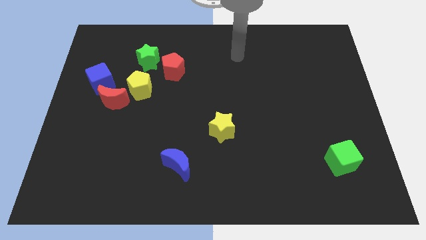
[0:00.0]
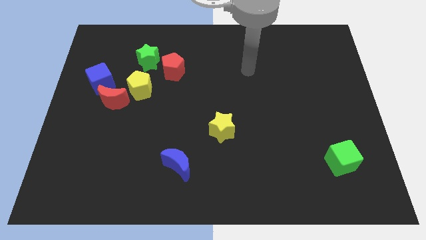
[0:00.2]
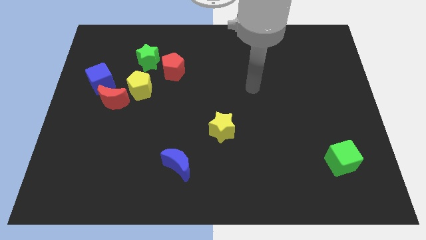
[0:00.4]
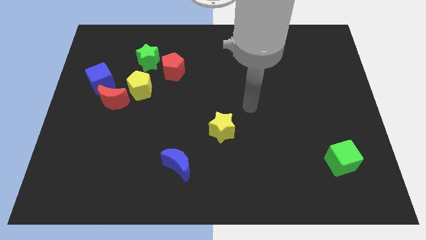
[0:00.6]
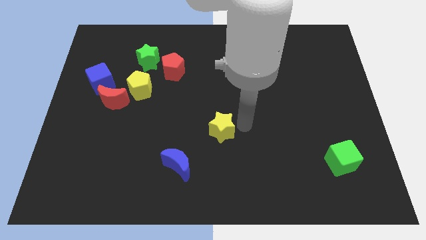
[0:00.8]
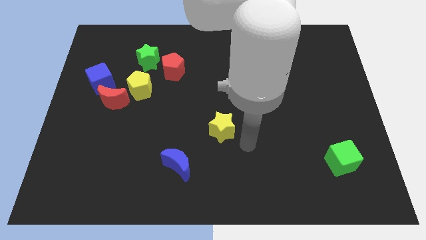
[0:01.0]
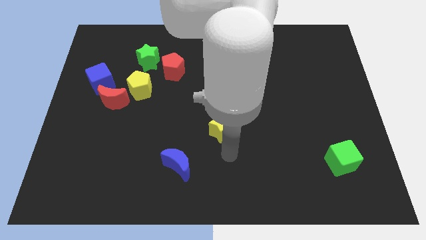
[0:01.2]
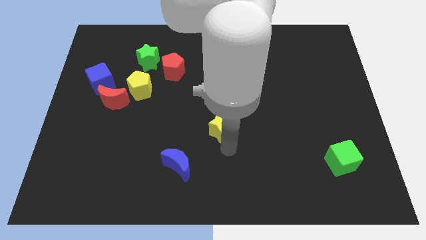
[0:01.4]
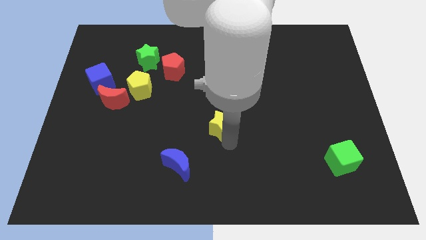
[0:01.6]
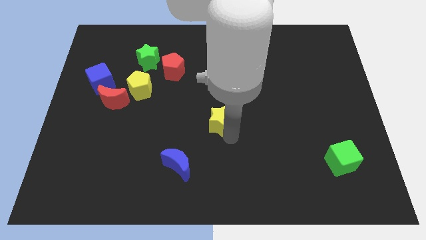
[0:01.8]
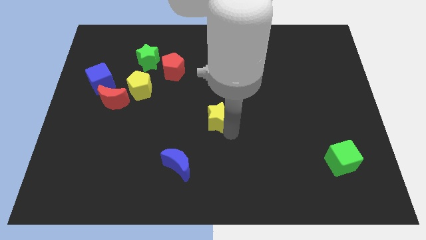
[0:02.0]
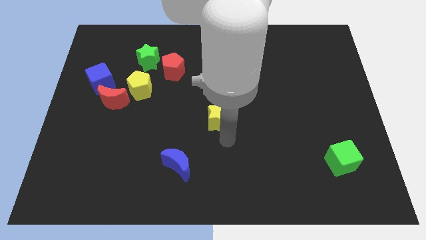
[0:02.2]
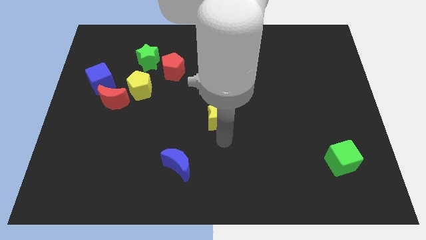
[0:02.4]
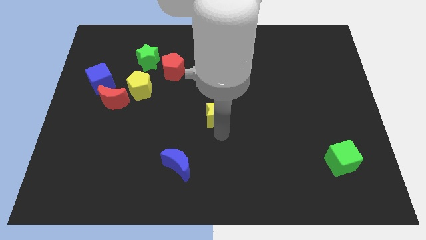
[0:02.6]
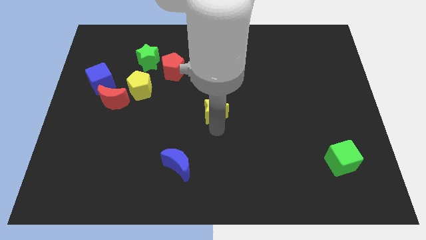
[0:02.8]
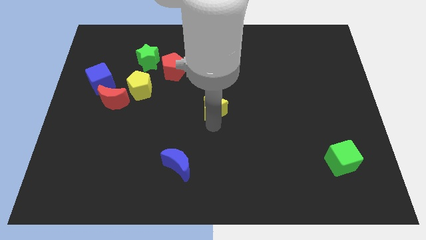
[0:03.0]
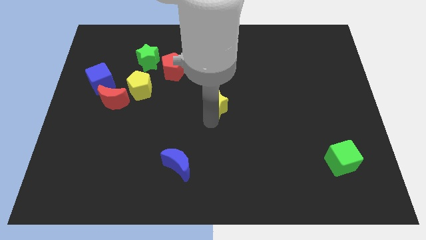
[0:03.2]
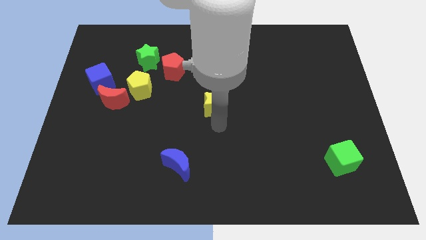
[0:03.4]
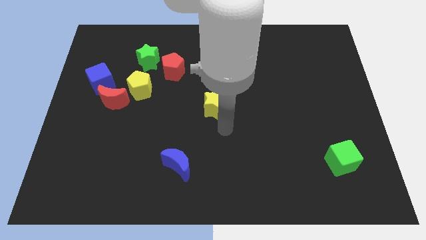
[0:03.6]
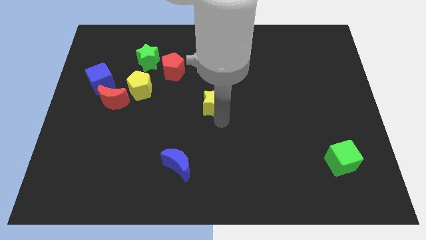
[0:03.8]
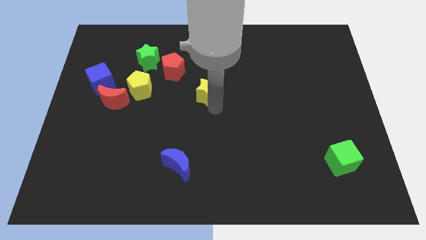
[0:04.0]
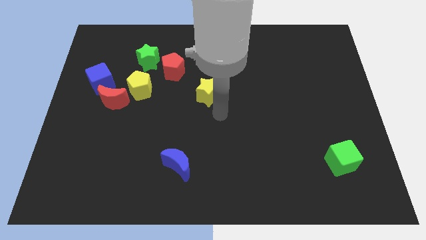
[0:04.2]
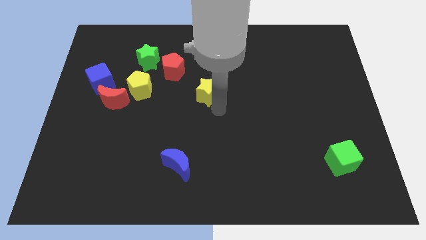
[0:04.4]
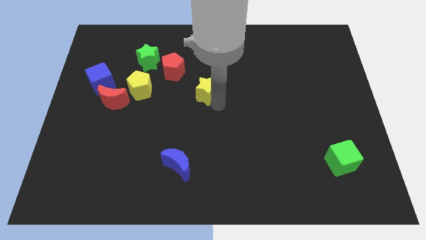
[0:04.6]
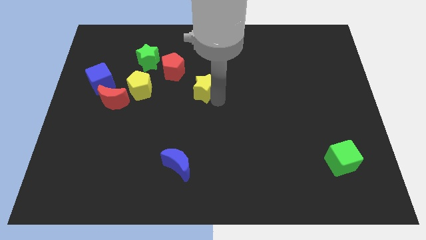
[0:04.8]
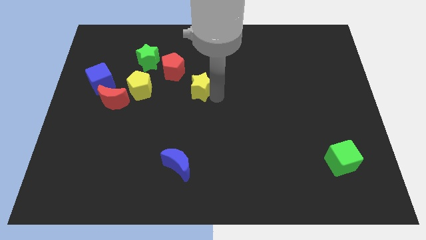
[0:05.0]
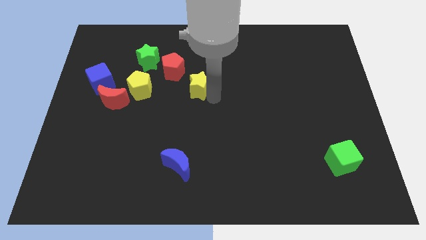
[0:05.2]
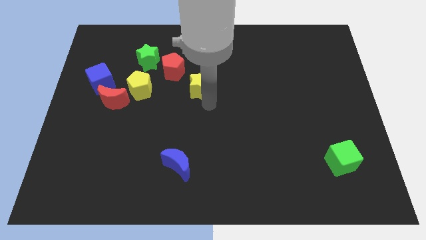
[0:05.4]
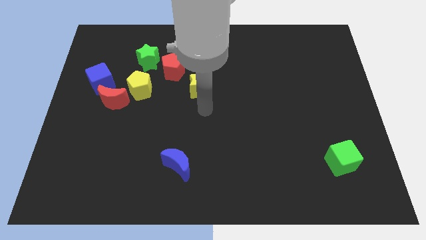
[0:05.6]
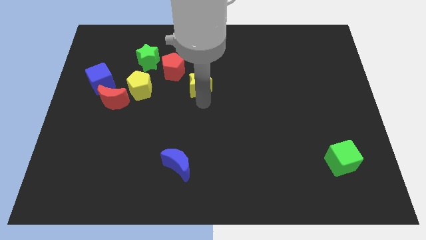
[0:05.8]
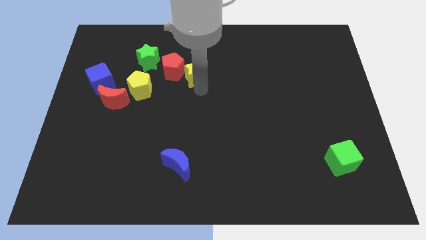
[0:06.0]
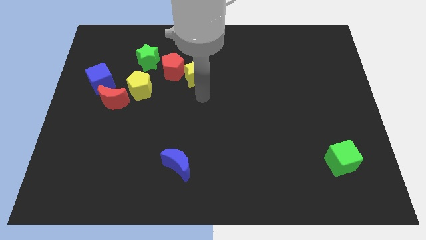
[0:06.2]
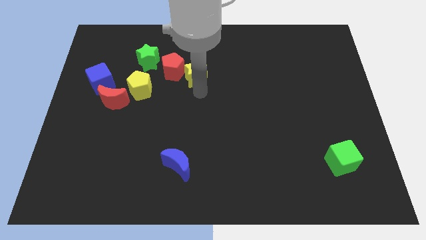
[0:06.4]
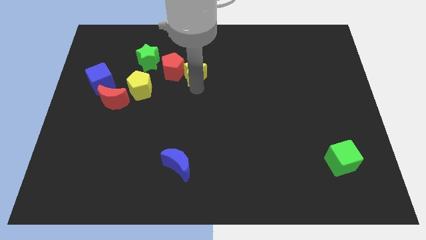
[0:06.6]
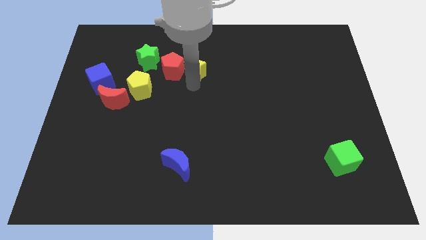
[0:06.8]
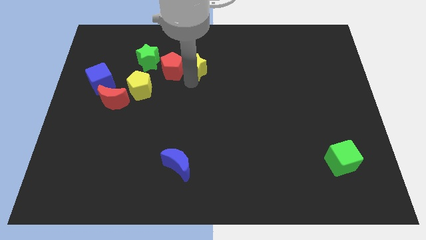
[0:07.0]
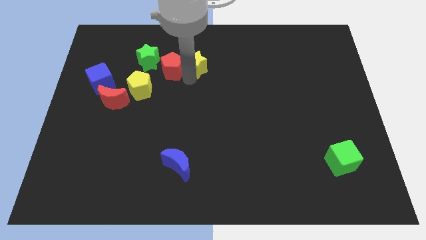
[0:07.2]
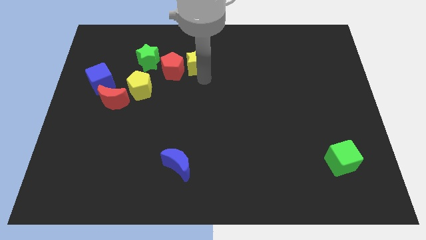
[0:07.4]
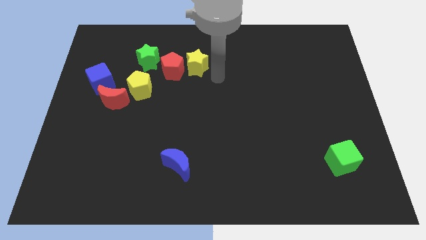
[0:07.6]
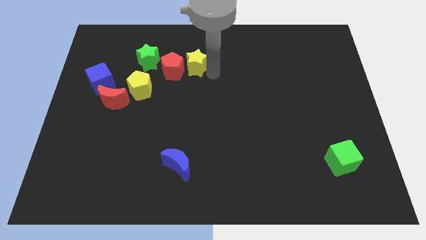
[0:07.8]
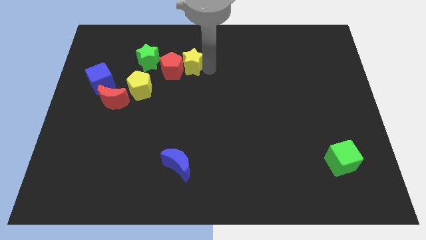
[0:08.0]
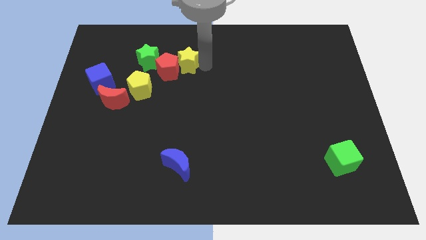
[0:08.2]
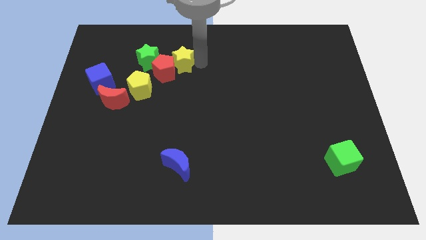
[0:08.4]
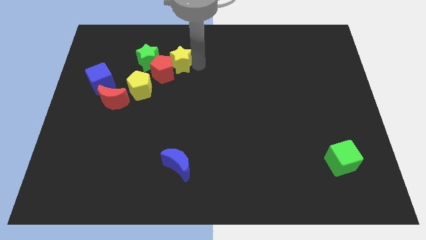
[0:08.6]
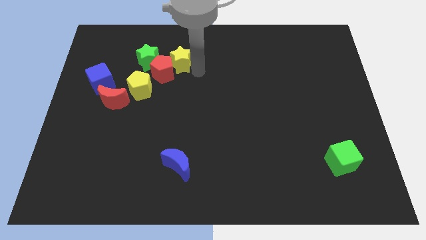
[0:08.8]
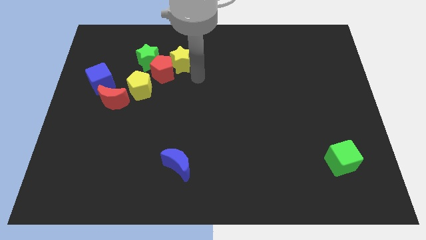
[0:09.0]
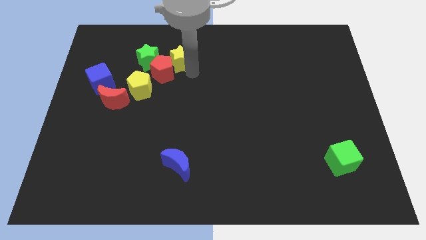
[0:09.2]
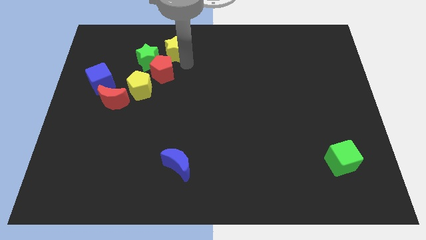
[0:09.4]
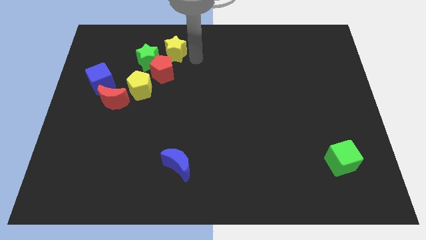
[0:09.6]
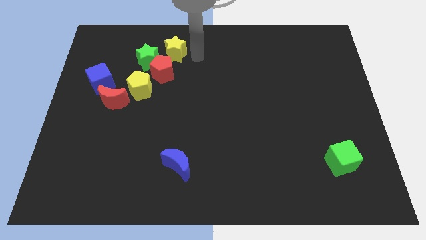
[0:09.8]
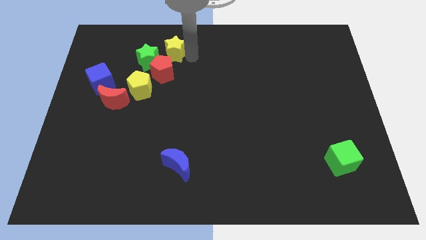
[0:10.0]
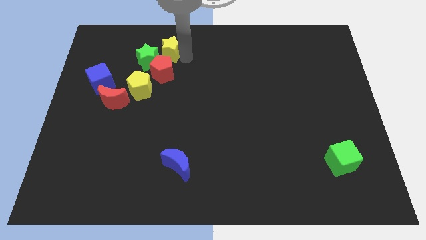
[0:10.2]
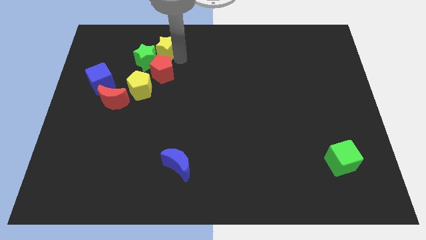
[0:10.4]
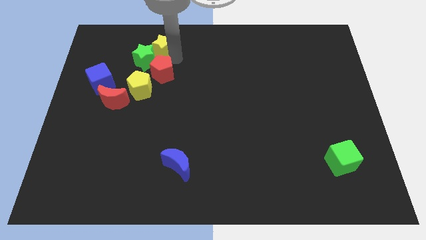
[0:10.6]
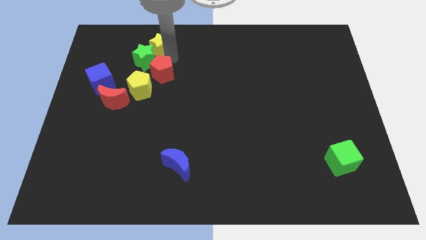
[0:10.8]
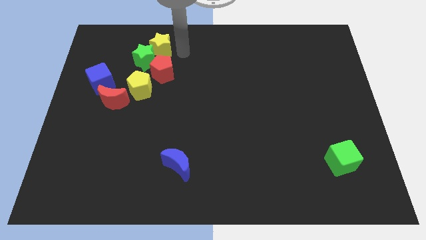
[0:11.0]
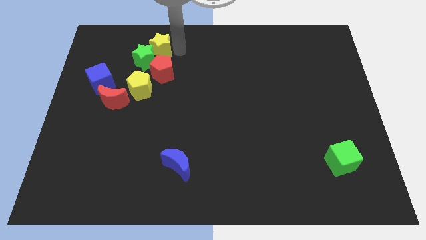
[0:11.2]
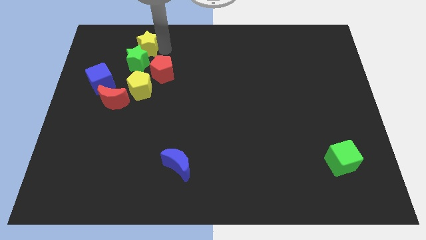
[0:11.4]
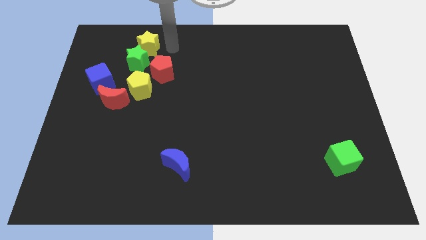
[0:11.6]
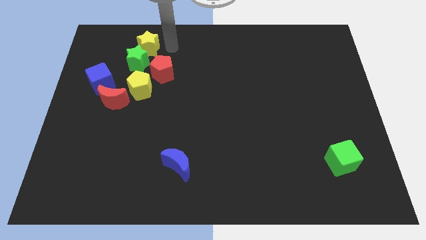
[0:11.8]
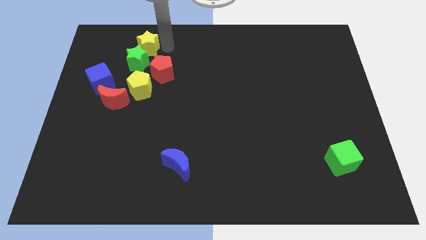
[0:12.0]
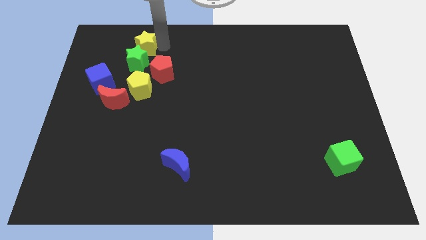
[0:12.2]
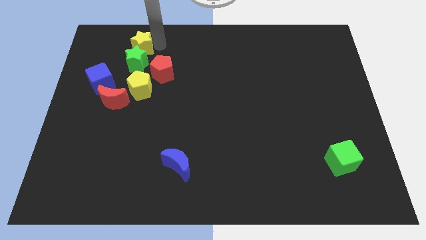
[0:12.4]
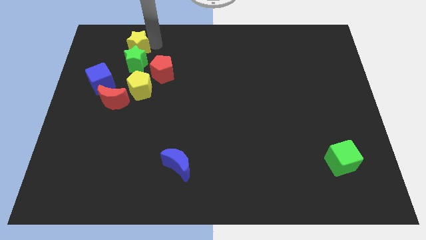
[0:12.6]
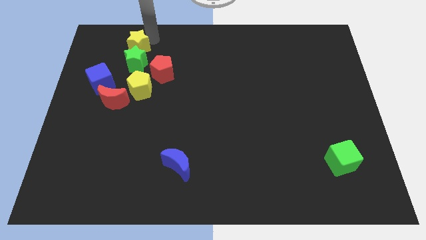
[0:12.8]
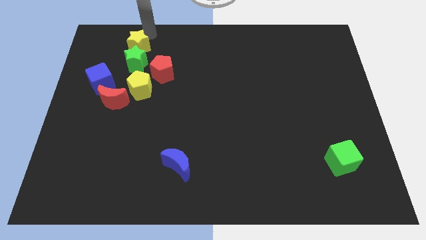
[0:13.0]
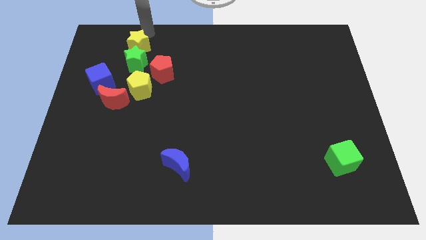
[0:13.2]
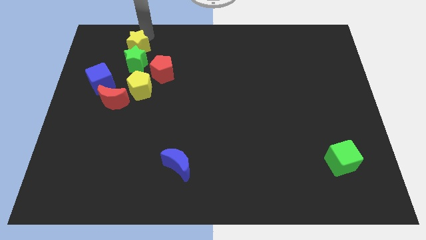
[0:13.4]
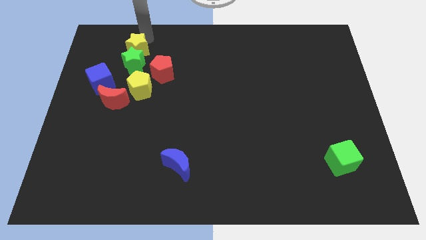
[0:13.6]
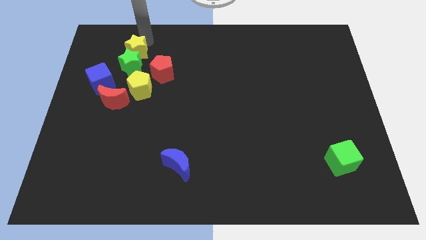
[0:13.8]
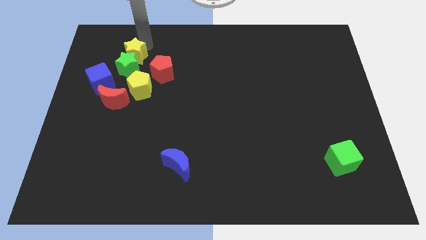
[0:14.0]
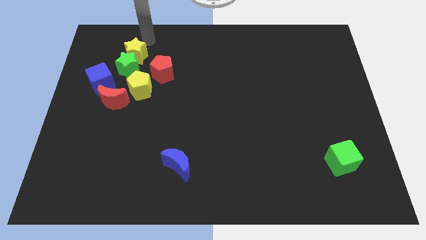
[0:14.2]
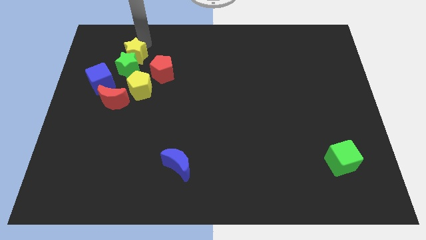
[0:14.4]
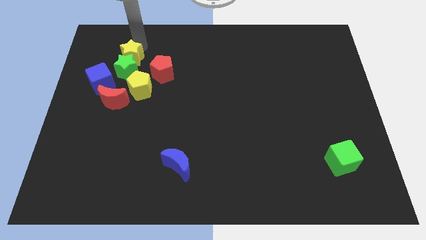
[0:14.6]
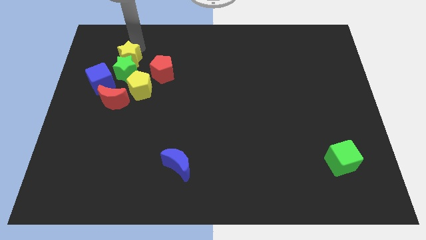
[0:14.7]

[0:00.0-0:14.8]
put the yellow star just left of the red pentagon
